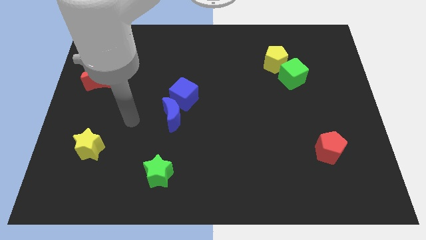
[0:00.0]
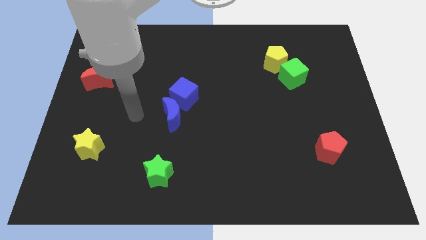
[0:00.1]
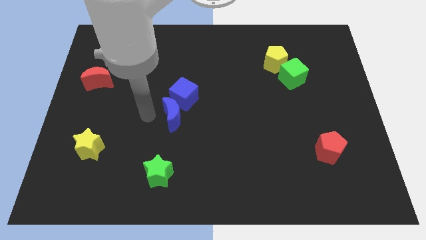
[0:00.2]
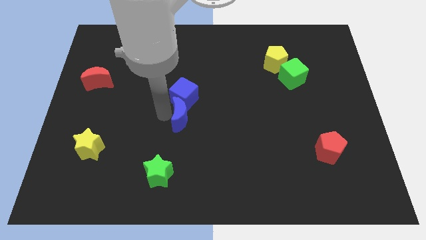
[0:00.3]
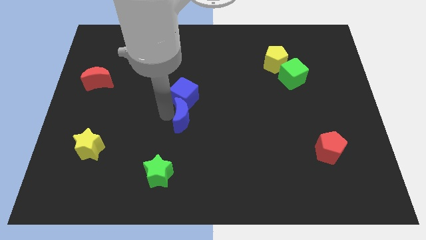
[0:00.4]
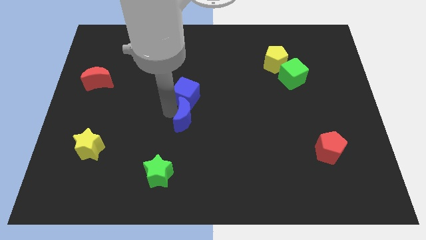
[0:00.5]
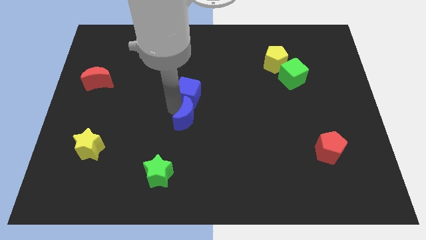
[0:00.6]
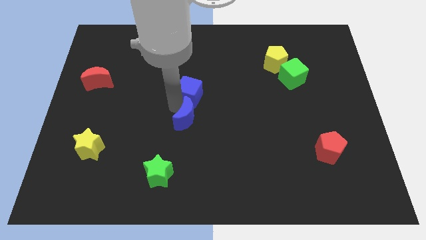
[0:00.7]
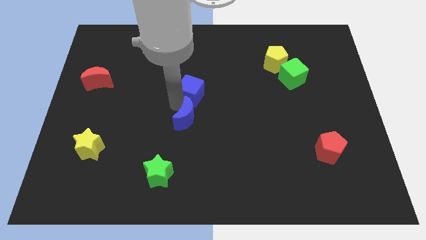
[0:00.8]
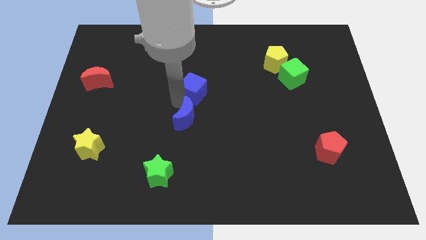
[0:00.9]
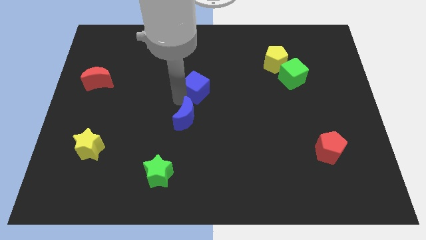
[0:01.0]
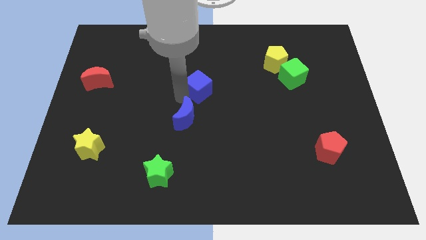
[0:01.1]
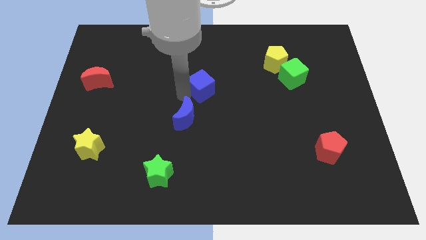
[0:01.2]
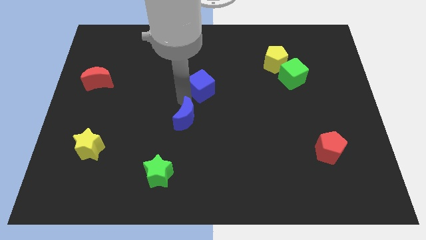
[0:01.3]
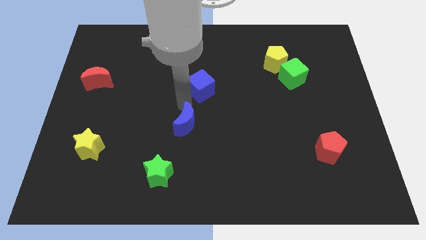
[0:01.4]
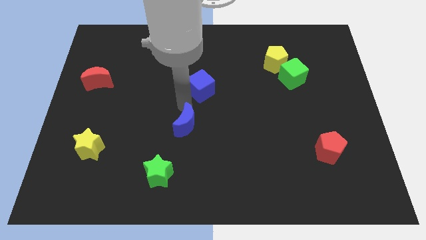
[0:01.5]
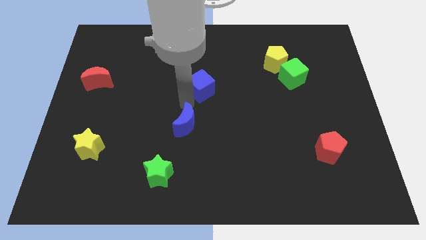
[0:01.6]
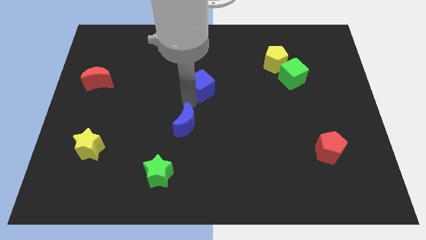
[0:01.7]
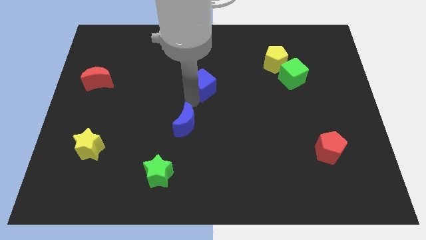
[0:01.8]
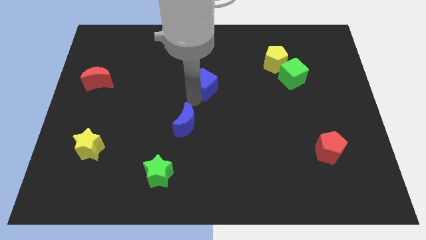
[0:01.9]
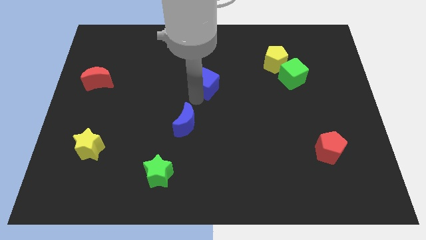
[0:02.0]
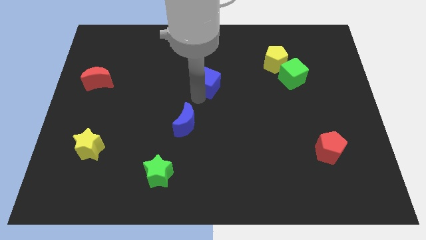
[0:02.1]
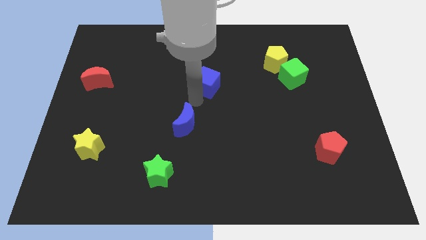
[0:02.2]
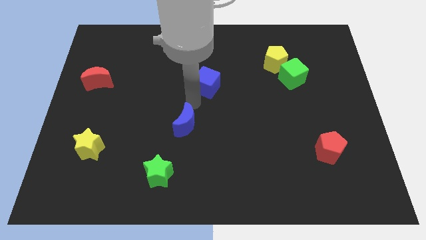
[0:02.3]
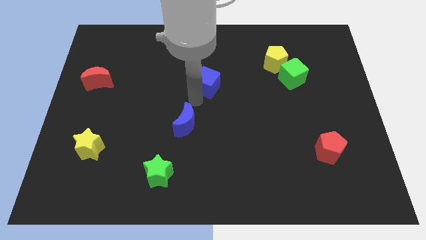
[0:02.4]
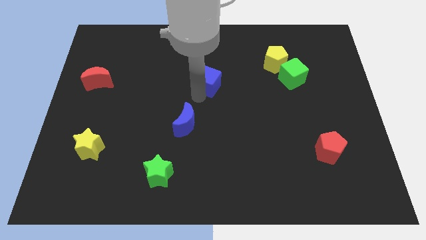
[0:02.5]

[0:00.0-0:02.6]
slide the blue cube diagonally up and to the right a bit

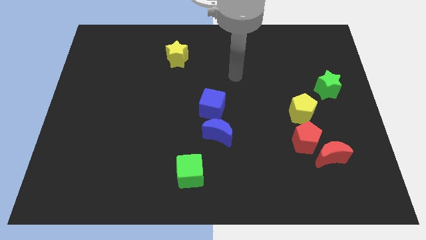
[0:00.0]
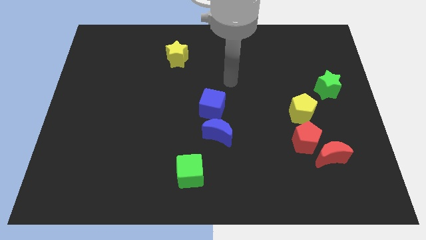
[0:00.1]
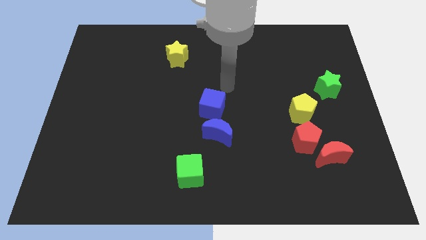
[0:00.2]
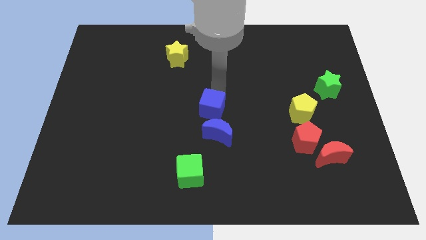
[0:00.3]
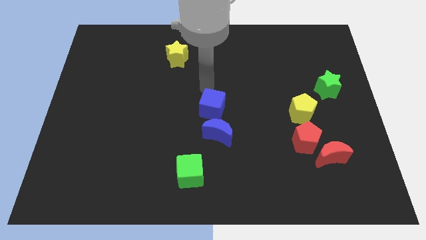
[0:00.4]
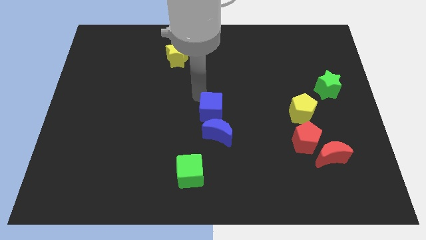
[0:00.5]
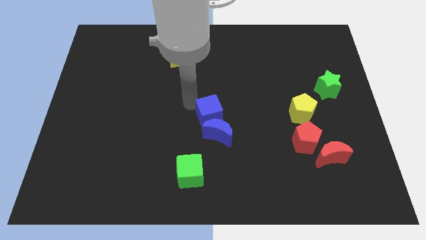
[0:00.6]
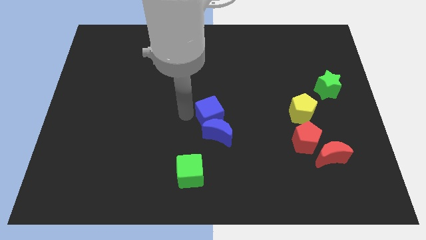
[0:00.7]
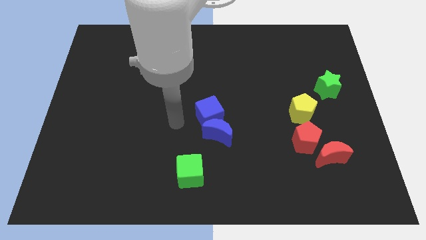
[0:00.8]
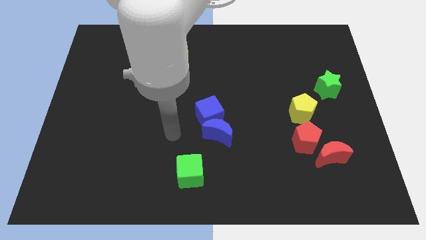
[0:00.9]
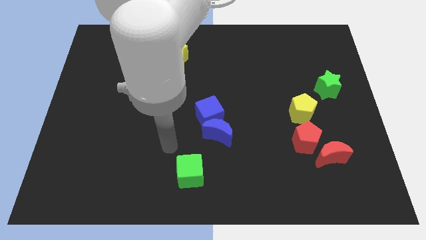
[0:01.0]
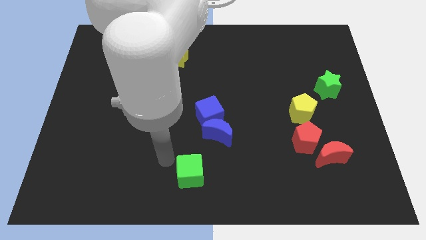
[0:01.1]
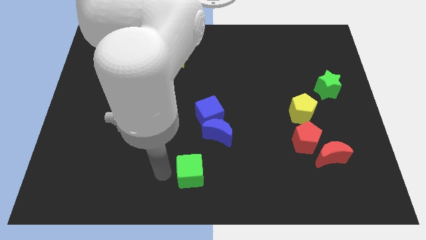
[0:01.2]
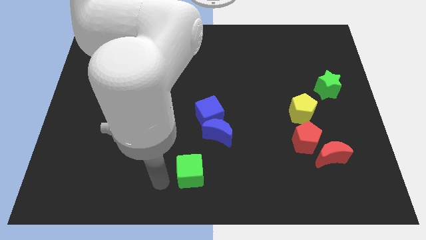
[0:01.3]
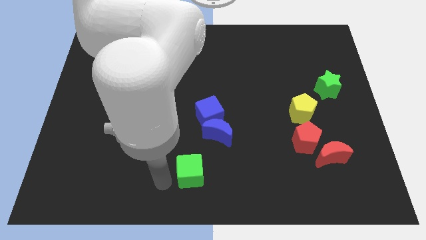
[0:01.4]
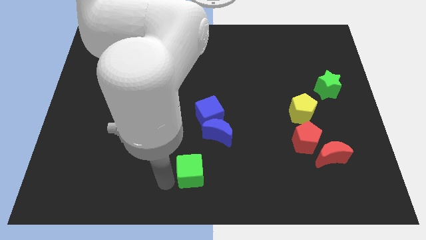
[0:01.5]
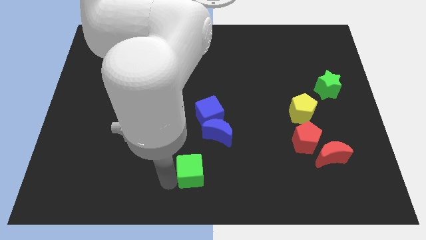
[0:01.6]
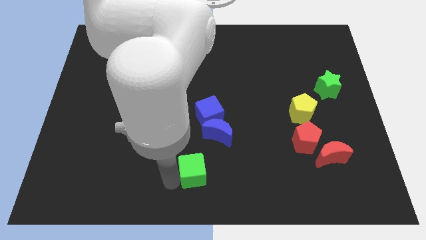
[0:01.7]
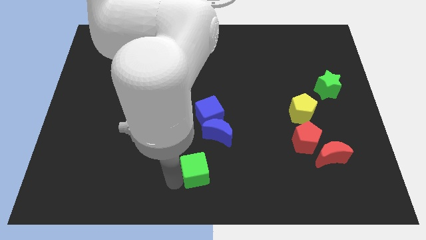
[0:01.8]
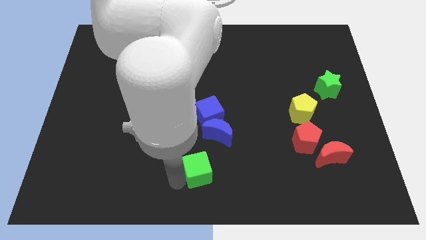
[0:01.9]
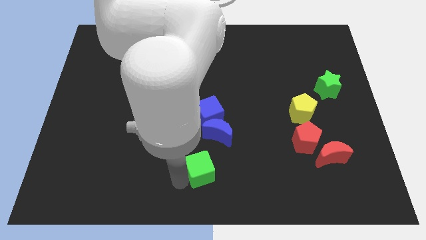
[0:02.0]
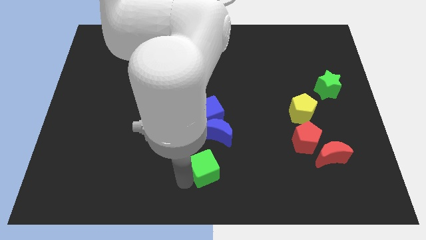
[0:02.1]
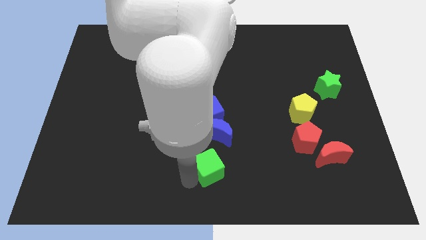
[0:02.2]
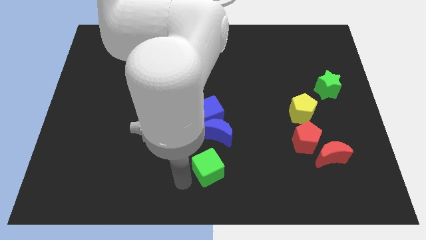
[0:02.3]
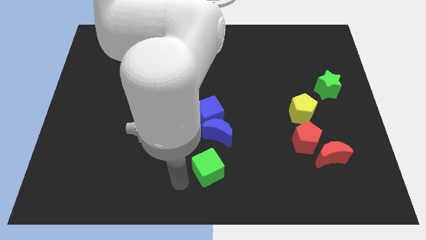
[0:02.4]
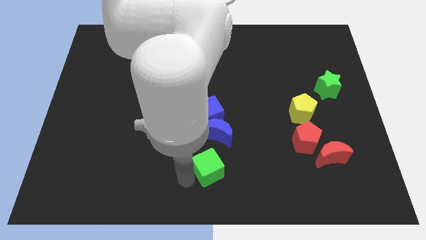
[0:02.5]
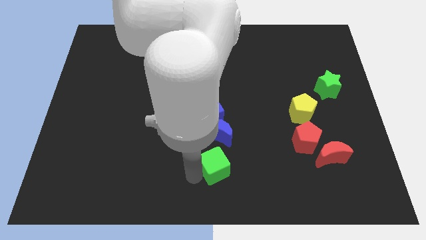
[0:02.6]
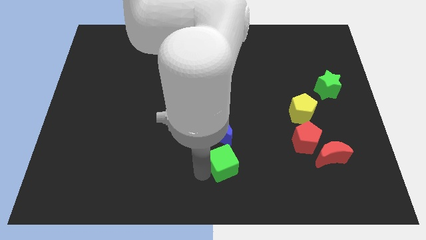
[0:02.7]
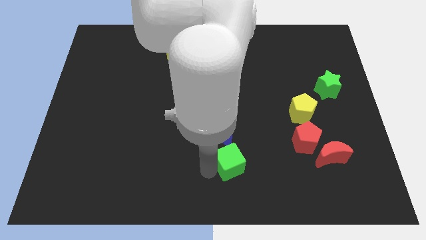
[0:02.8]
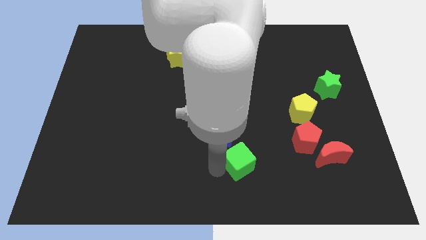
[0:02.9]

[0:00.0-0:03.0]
push the green cube a little up and to the right diagonally

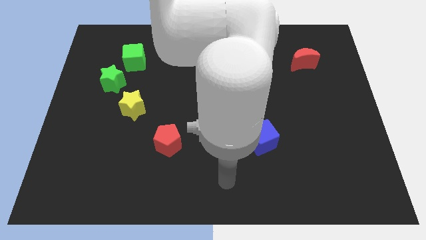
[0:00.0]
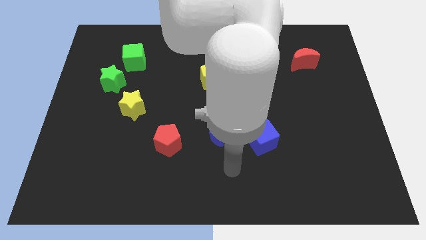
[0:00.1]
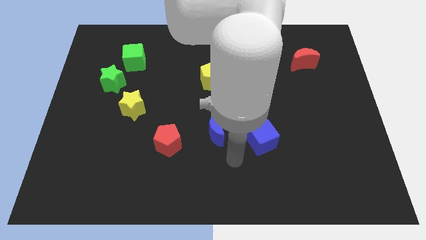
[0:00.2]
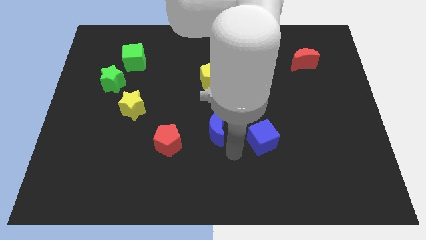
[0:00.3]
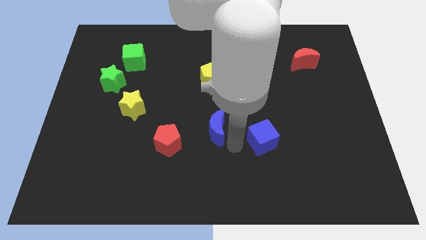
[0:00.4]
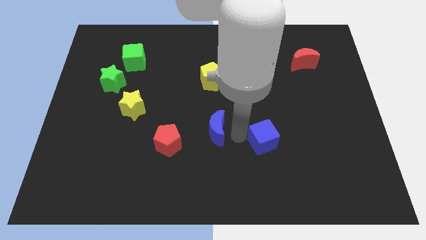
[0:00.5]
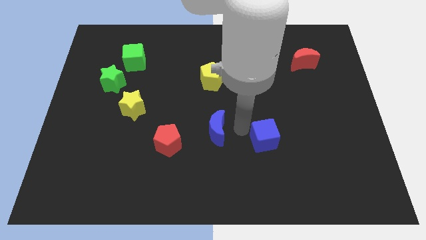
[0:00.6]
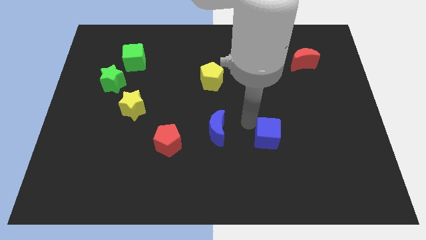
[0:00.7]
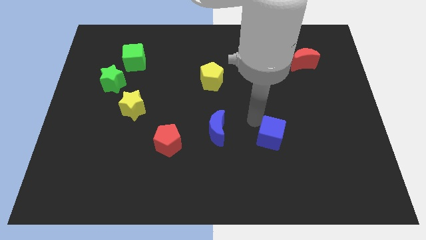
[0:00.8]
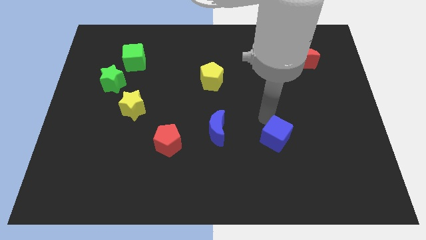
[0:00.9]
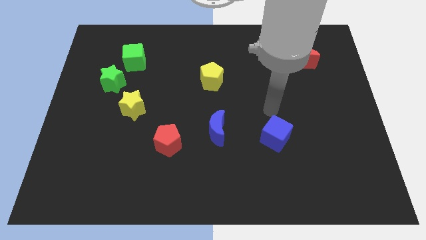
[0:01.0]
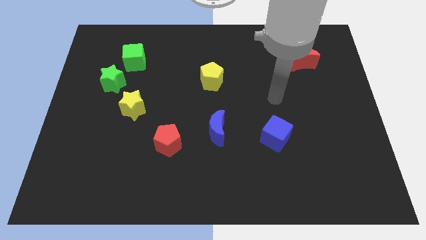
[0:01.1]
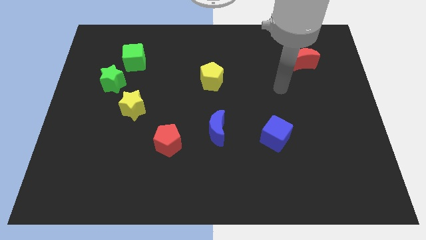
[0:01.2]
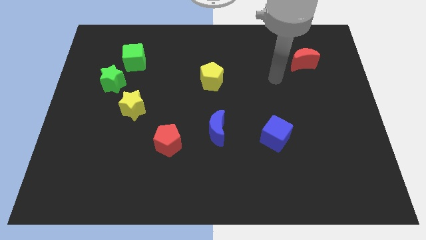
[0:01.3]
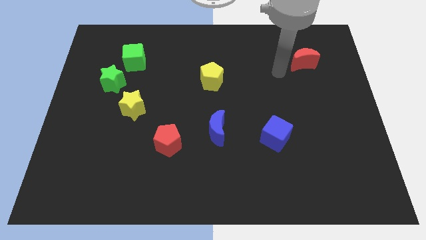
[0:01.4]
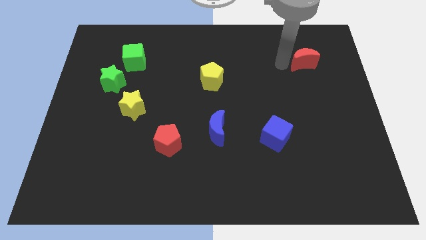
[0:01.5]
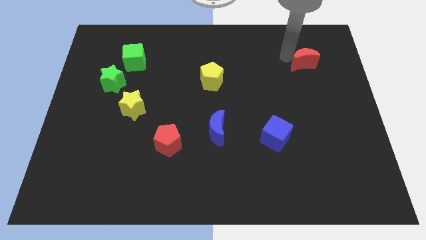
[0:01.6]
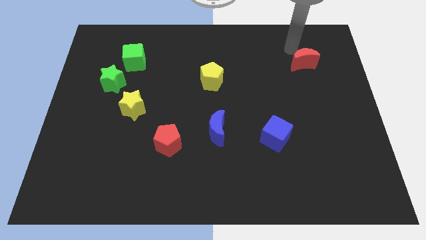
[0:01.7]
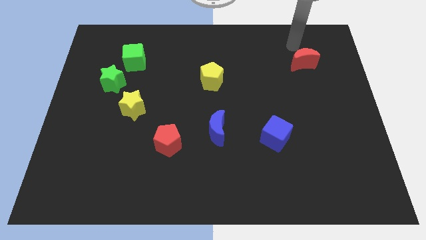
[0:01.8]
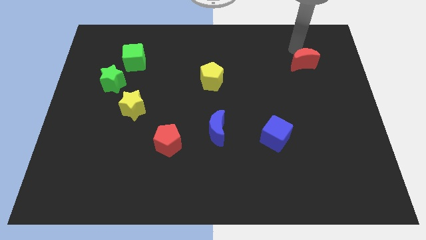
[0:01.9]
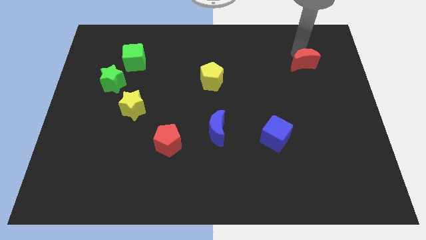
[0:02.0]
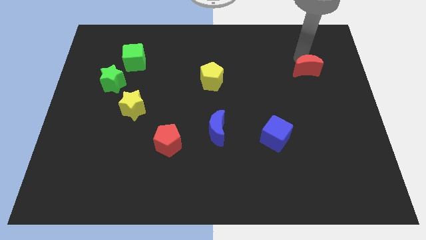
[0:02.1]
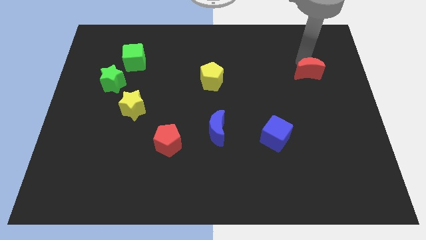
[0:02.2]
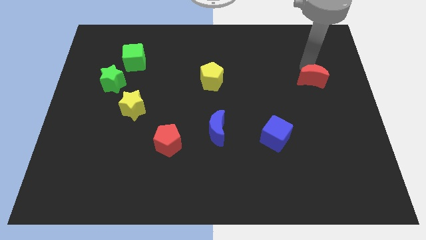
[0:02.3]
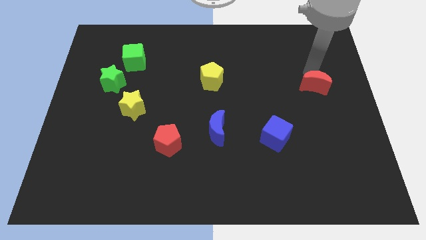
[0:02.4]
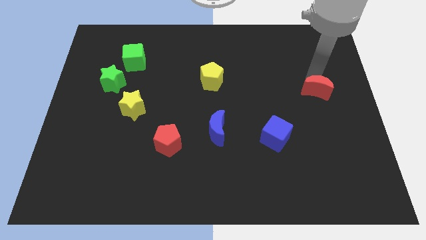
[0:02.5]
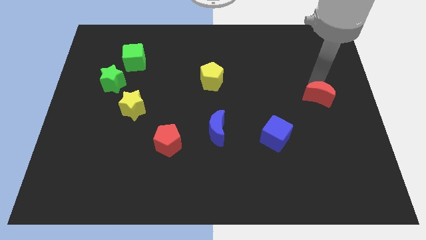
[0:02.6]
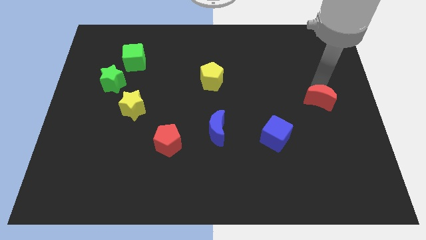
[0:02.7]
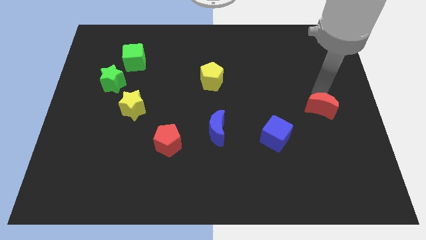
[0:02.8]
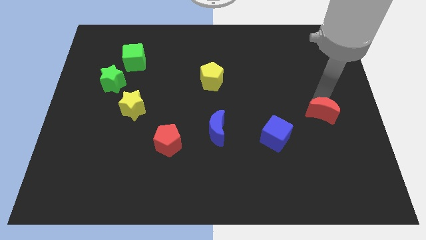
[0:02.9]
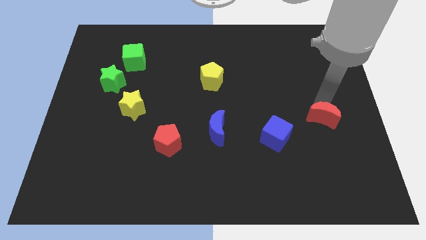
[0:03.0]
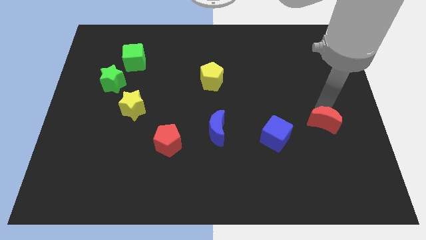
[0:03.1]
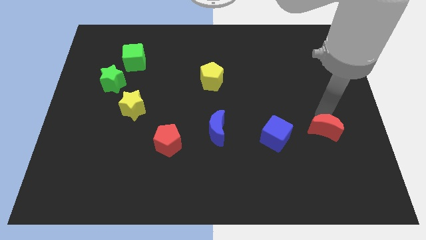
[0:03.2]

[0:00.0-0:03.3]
push the red moon downwards
